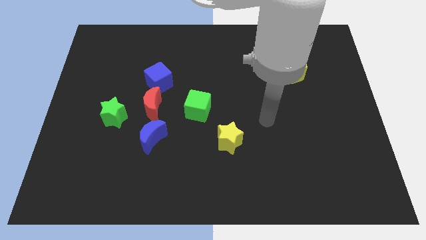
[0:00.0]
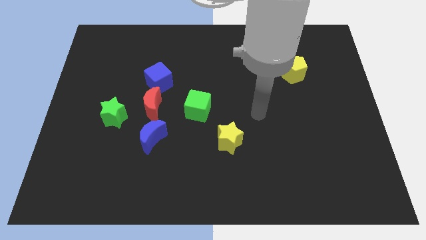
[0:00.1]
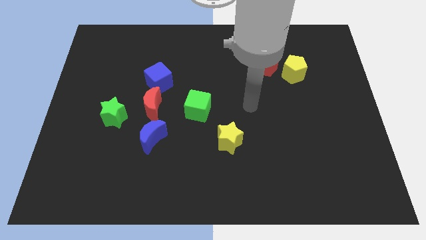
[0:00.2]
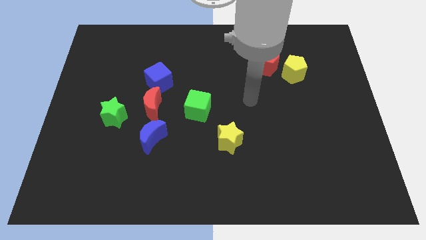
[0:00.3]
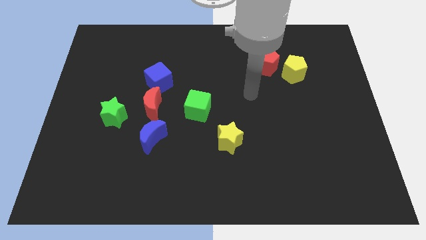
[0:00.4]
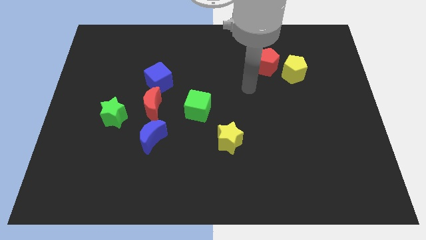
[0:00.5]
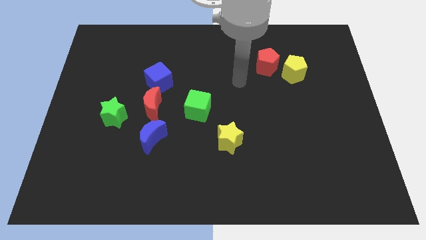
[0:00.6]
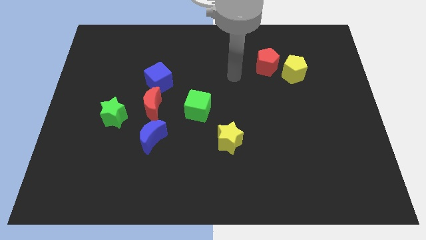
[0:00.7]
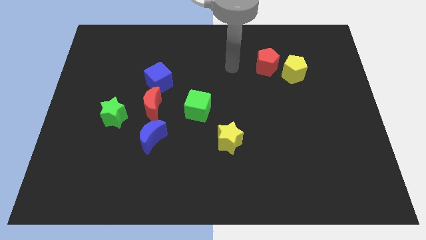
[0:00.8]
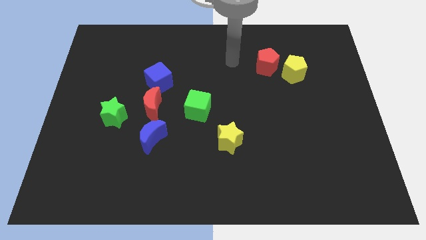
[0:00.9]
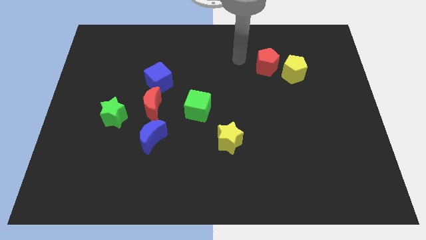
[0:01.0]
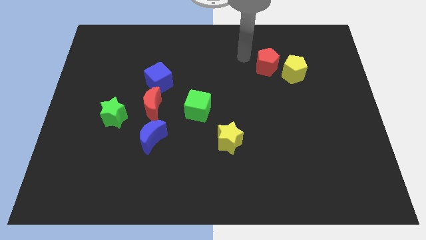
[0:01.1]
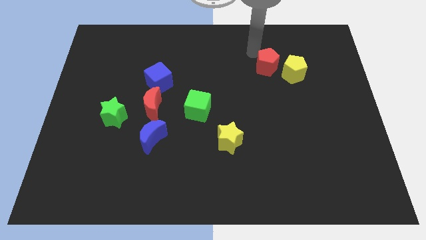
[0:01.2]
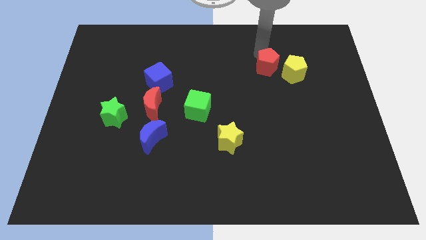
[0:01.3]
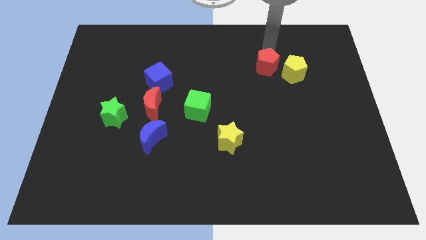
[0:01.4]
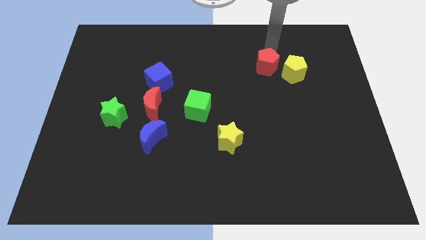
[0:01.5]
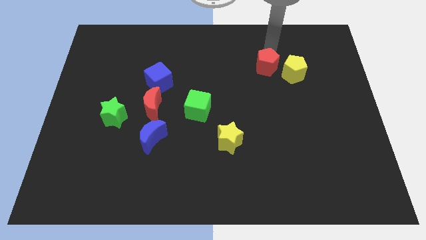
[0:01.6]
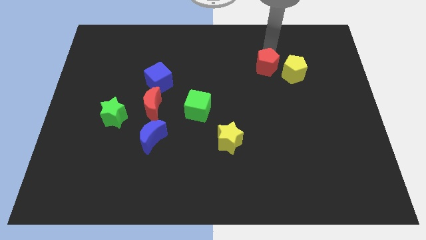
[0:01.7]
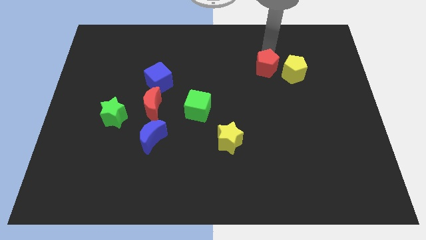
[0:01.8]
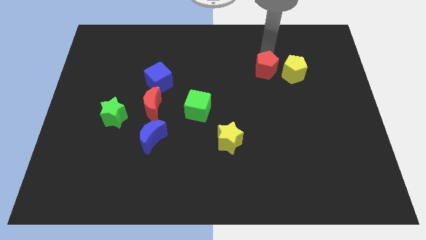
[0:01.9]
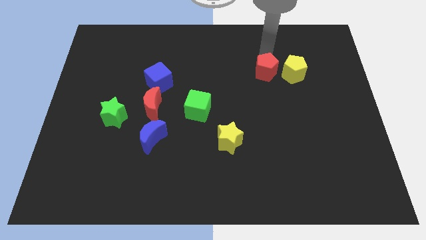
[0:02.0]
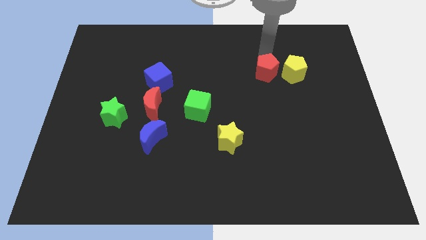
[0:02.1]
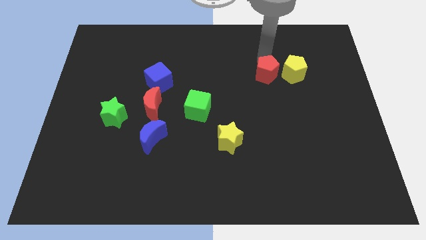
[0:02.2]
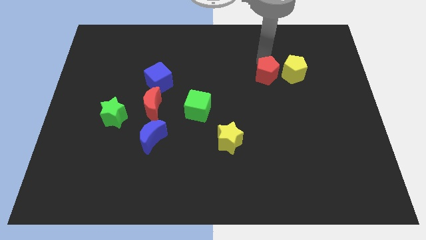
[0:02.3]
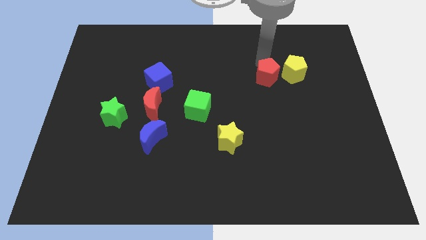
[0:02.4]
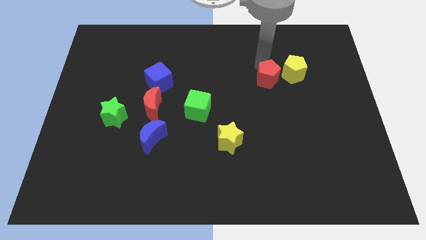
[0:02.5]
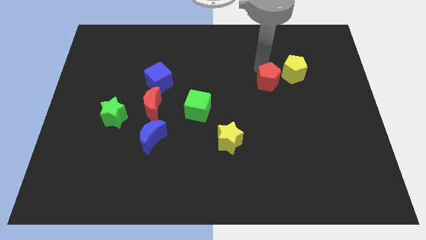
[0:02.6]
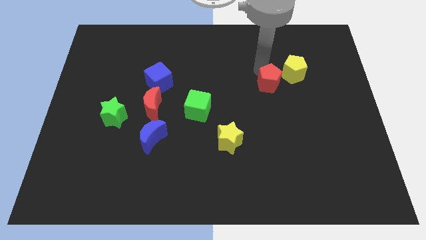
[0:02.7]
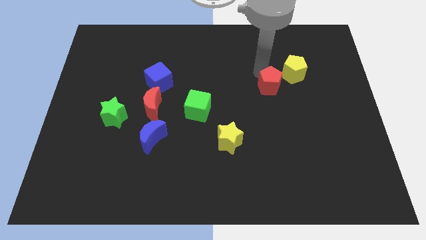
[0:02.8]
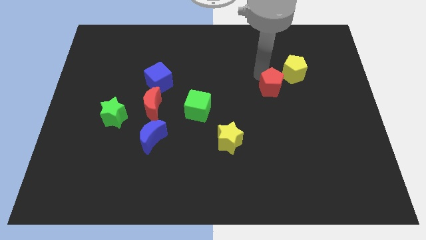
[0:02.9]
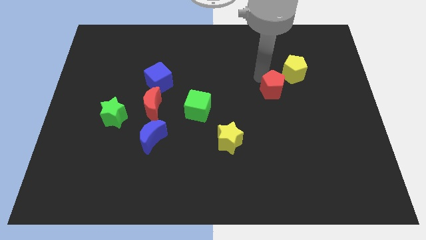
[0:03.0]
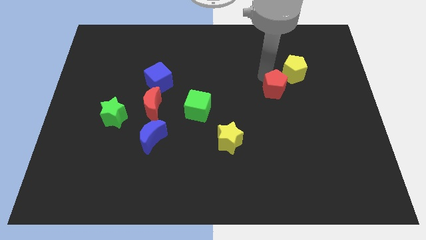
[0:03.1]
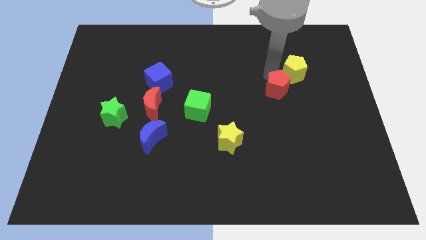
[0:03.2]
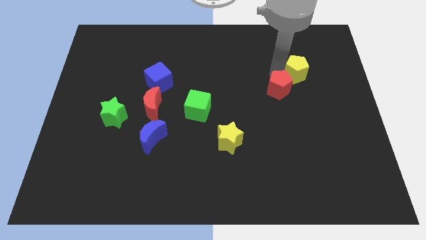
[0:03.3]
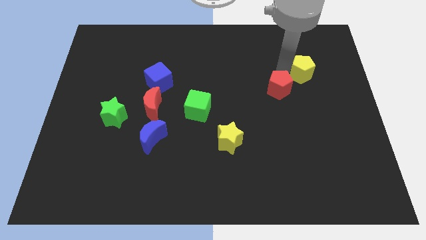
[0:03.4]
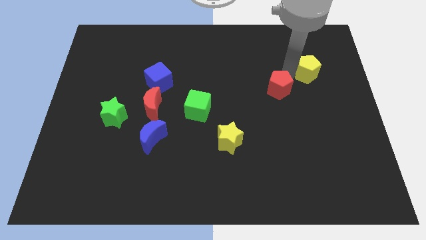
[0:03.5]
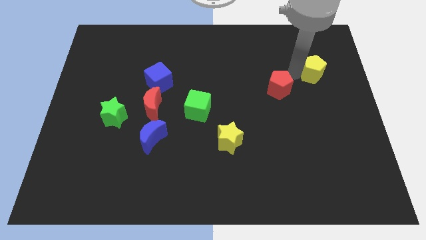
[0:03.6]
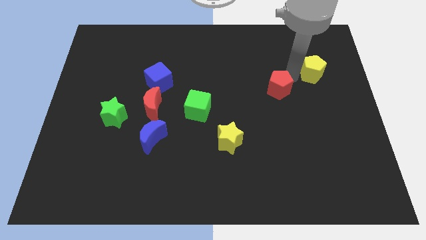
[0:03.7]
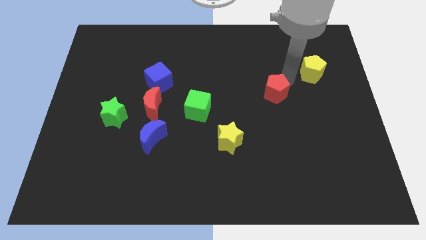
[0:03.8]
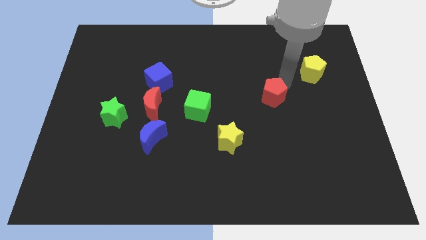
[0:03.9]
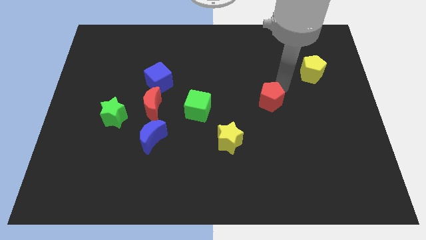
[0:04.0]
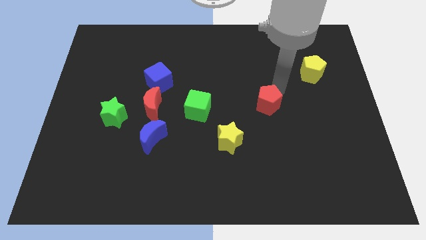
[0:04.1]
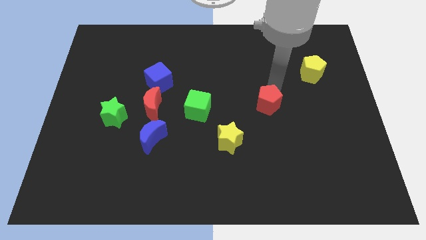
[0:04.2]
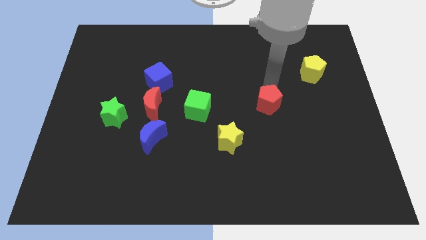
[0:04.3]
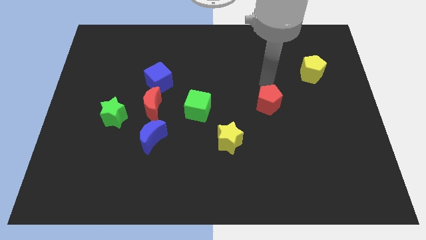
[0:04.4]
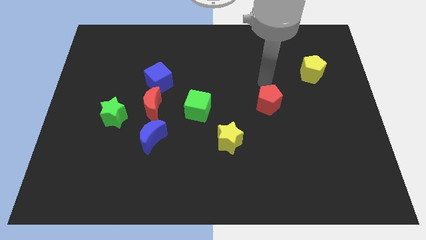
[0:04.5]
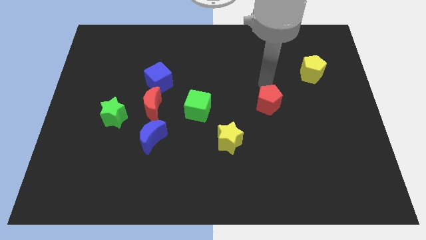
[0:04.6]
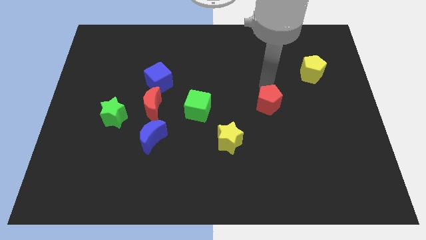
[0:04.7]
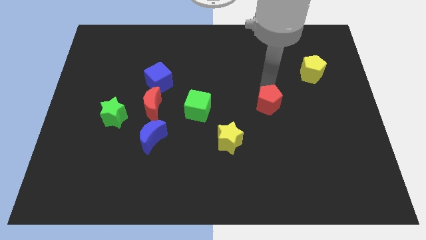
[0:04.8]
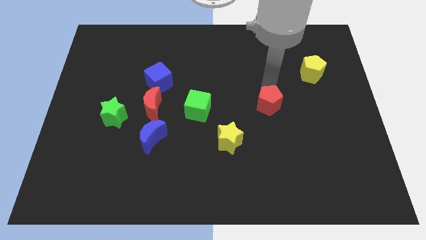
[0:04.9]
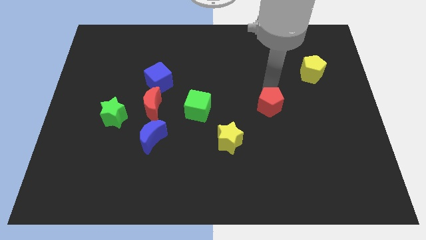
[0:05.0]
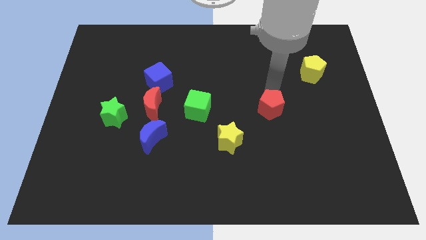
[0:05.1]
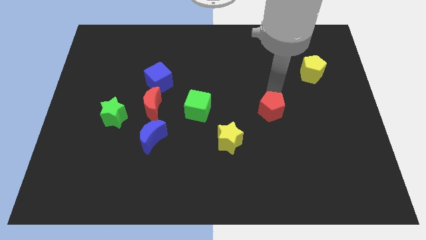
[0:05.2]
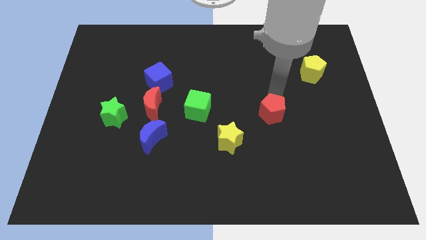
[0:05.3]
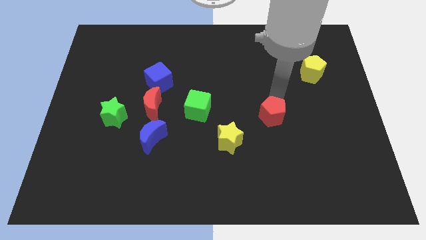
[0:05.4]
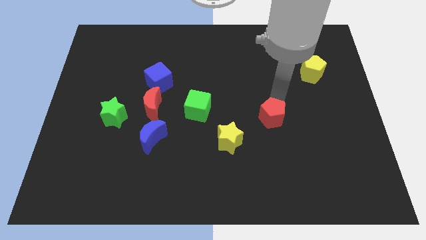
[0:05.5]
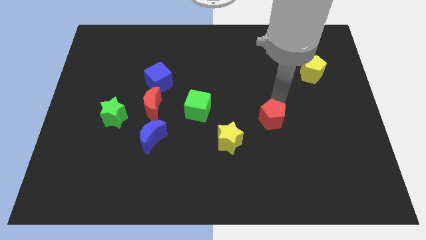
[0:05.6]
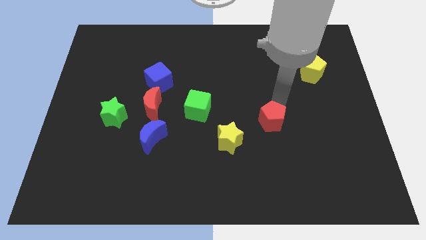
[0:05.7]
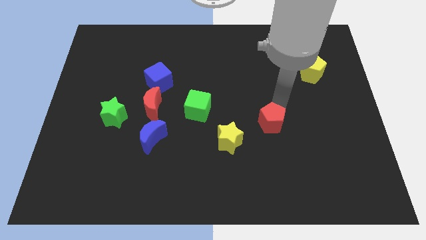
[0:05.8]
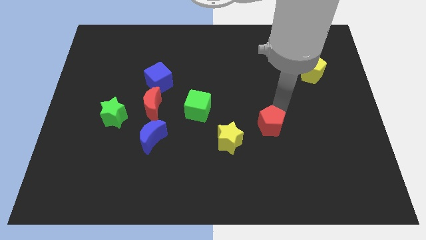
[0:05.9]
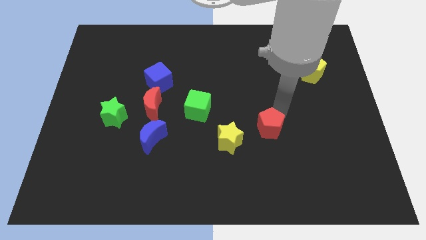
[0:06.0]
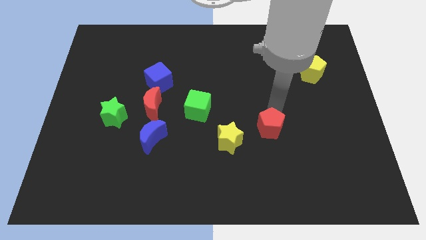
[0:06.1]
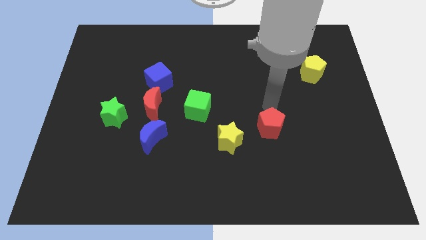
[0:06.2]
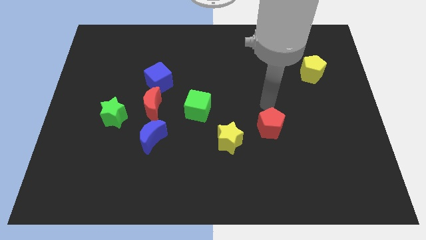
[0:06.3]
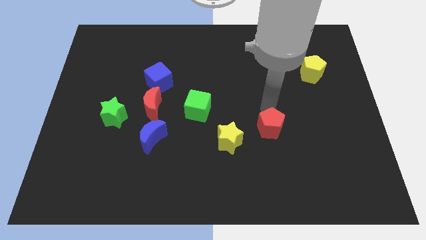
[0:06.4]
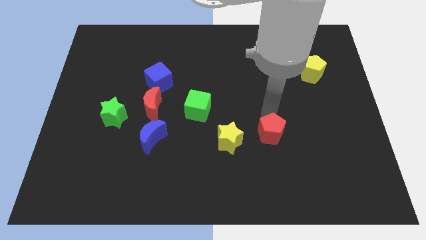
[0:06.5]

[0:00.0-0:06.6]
move the red pentagon downwards

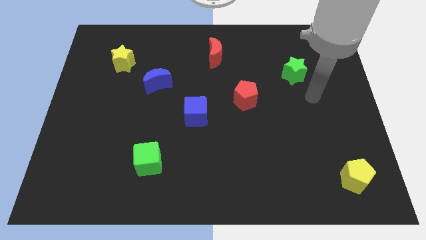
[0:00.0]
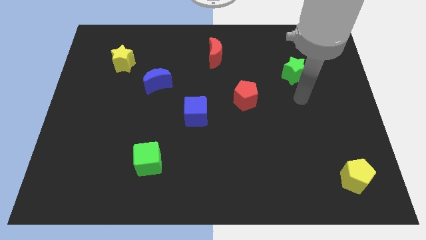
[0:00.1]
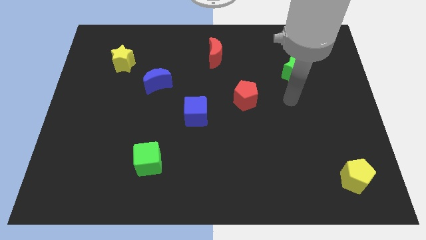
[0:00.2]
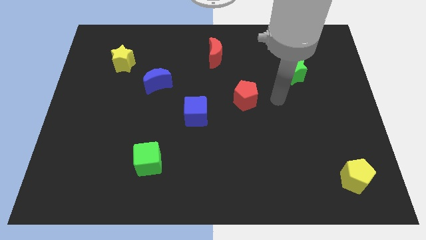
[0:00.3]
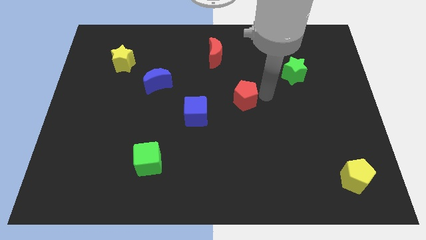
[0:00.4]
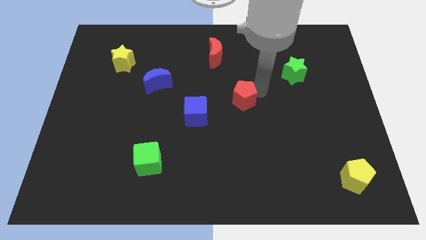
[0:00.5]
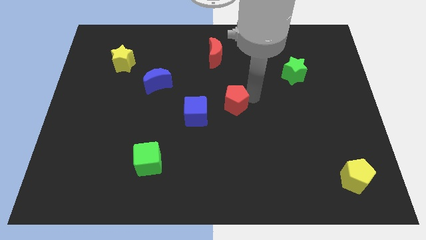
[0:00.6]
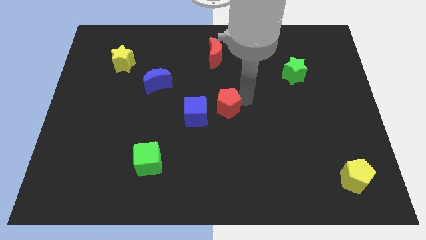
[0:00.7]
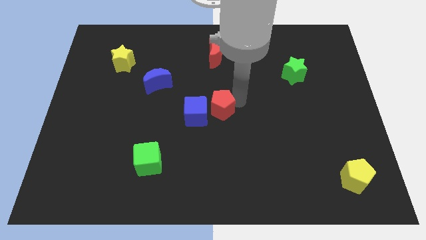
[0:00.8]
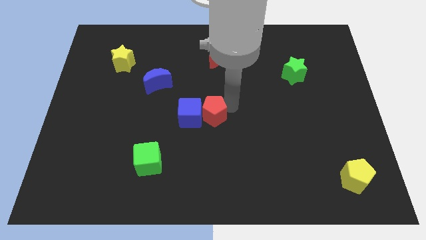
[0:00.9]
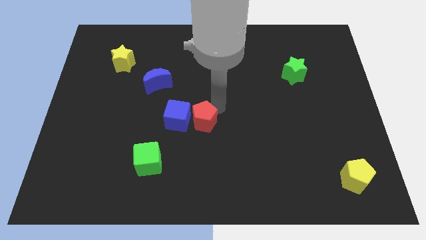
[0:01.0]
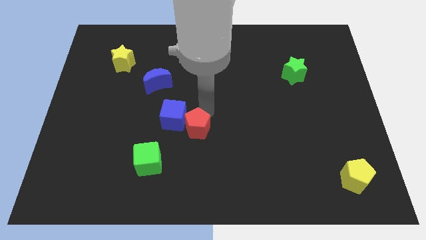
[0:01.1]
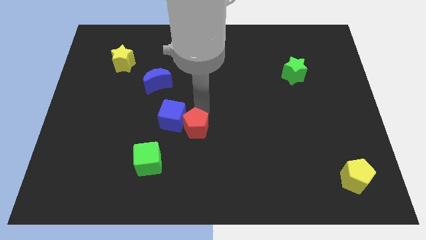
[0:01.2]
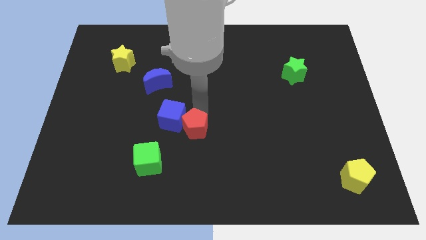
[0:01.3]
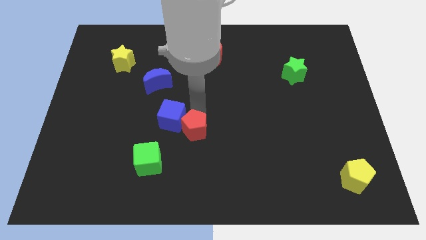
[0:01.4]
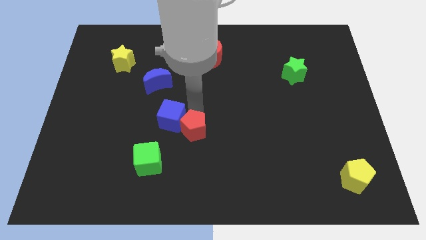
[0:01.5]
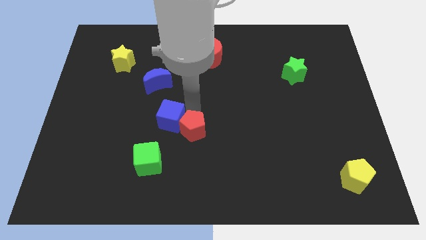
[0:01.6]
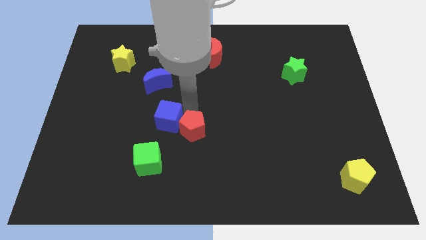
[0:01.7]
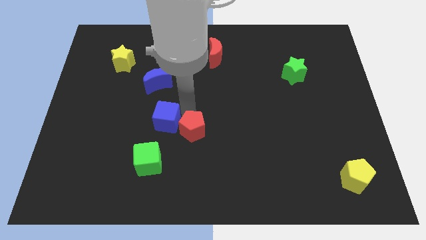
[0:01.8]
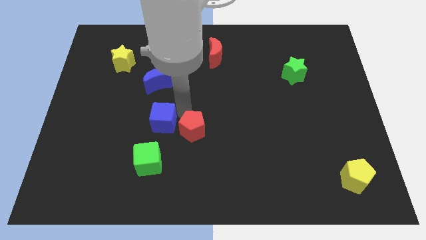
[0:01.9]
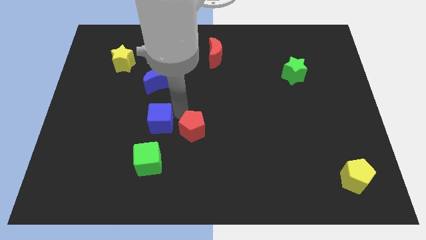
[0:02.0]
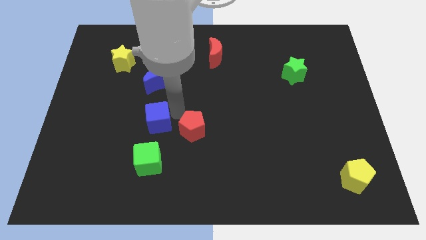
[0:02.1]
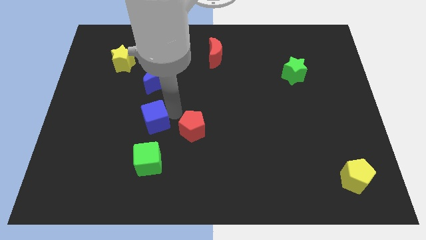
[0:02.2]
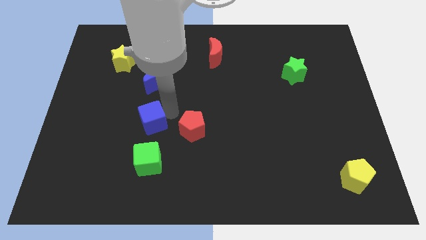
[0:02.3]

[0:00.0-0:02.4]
move the blue cube a bit downwards and then left
